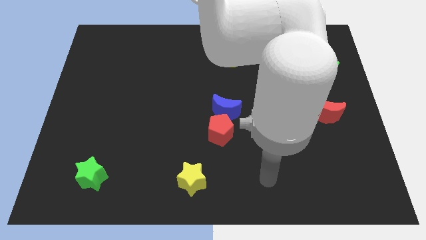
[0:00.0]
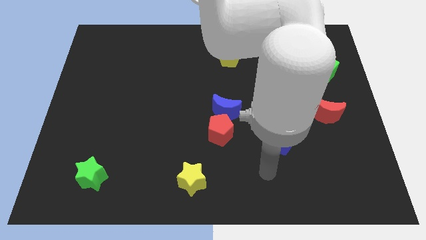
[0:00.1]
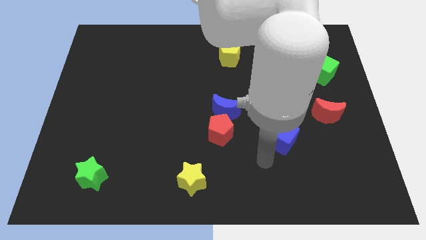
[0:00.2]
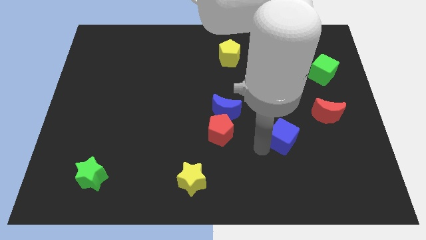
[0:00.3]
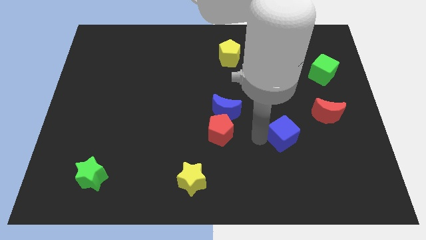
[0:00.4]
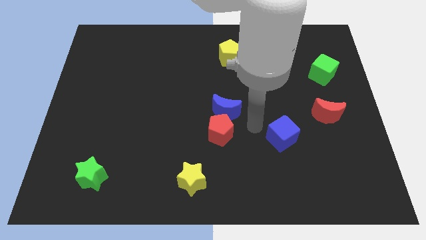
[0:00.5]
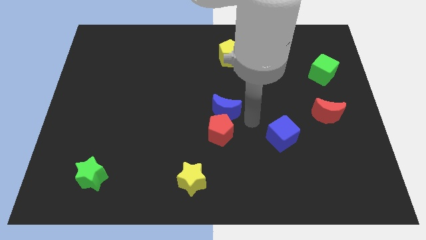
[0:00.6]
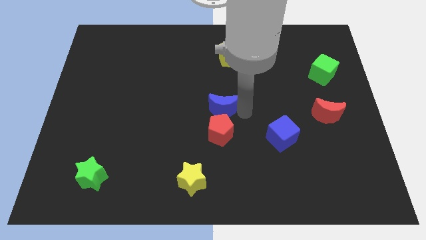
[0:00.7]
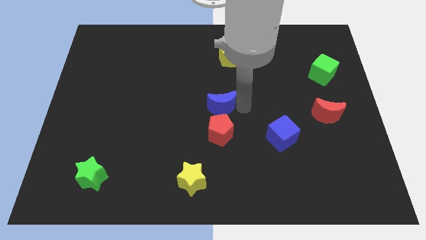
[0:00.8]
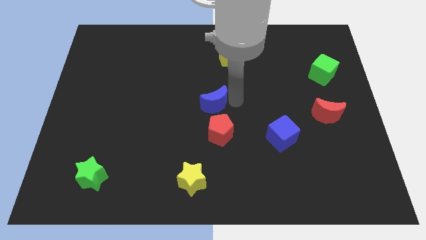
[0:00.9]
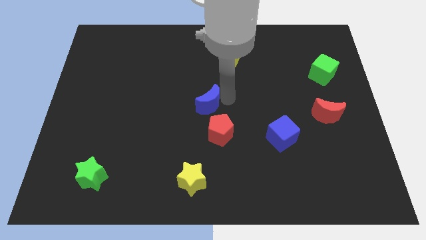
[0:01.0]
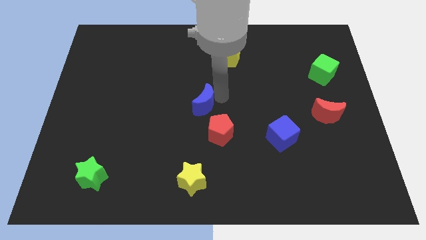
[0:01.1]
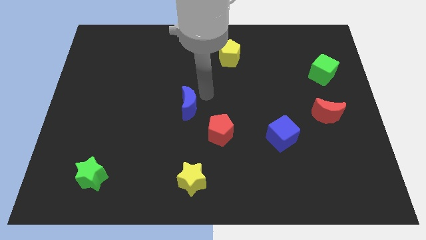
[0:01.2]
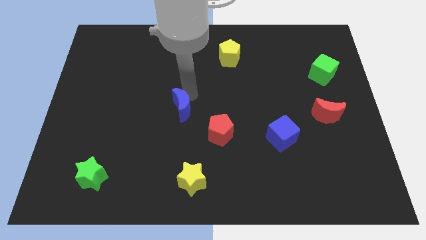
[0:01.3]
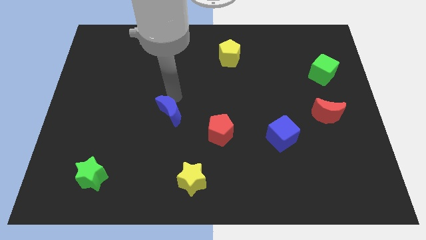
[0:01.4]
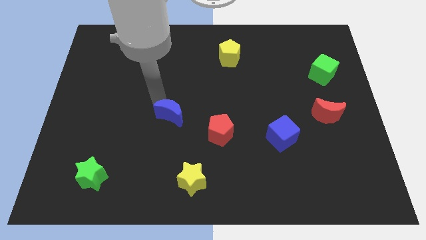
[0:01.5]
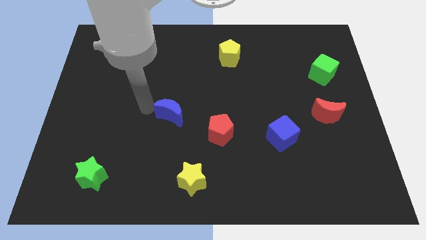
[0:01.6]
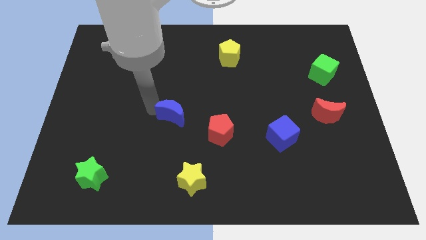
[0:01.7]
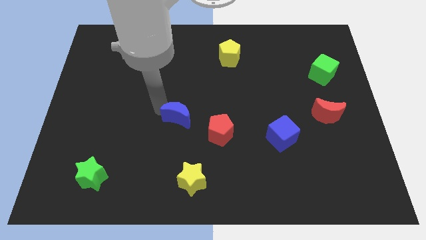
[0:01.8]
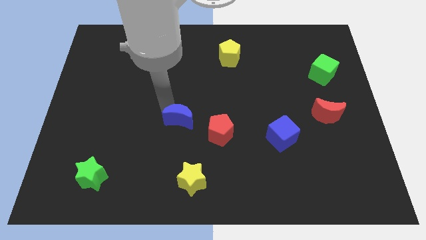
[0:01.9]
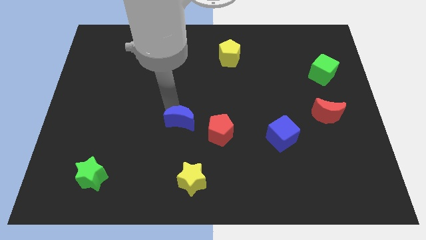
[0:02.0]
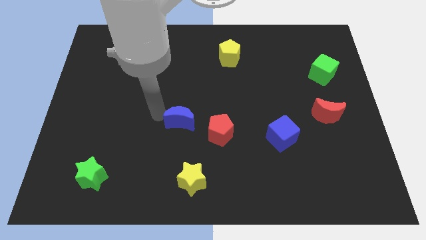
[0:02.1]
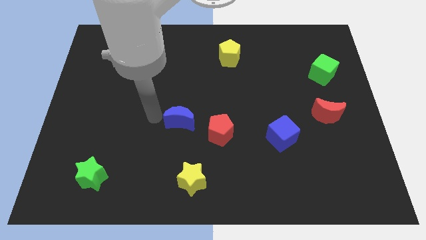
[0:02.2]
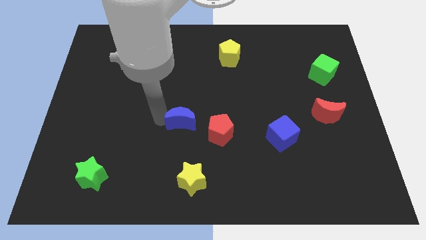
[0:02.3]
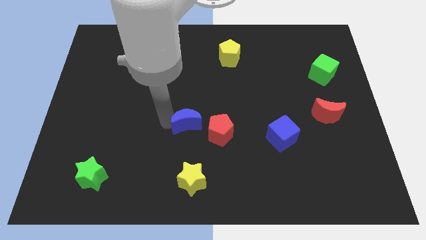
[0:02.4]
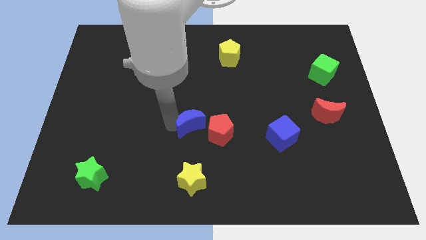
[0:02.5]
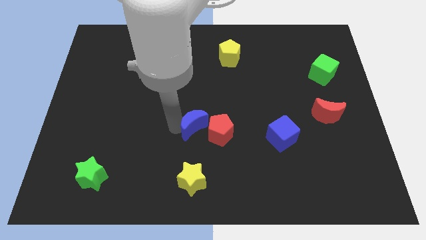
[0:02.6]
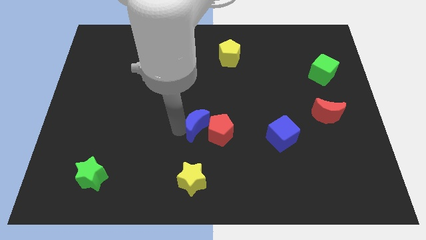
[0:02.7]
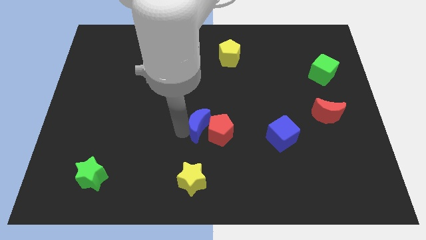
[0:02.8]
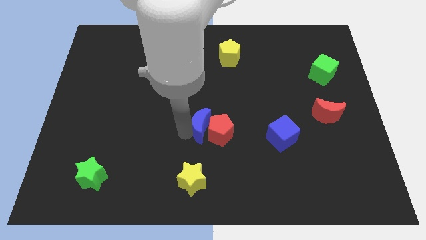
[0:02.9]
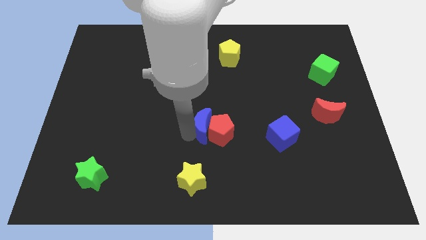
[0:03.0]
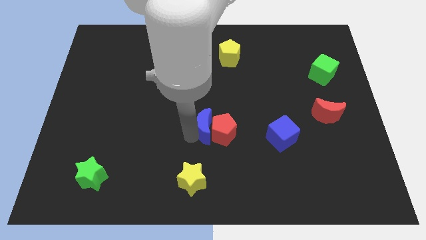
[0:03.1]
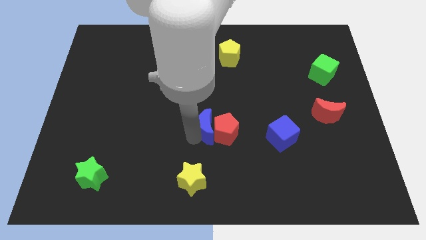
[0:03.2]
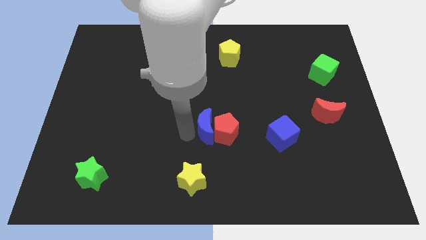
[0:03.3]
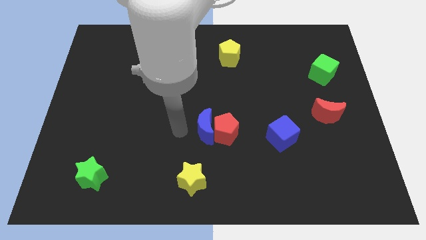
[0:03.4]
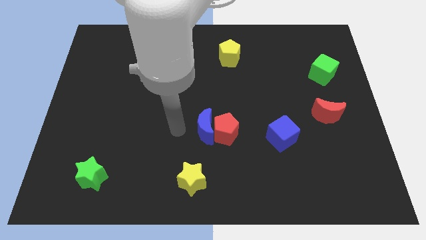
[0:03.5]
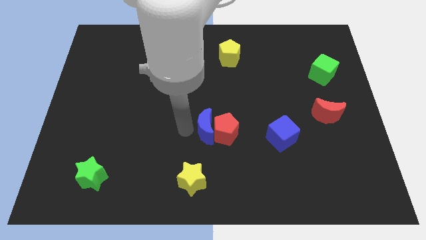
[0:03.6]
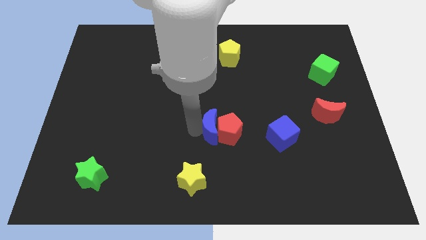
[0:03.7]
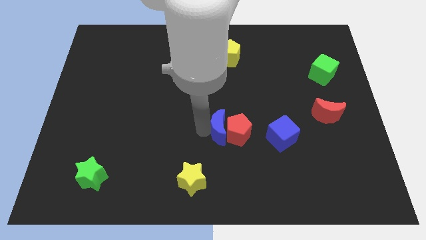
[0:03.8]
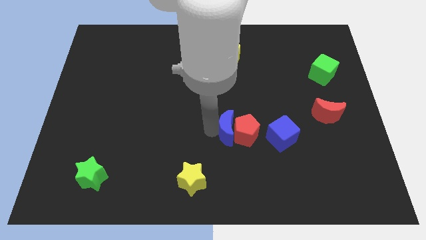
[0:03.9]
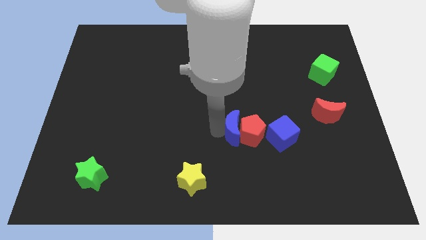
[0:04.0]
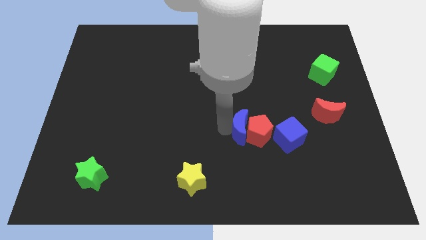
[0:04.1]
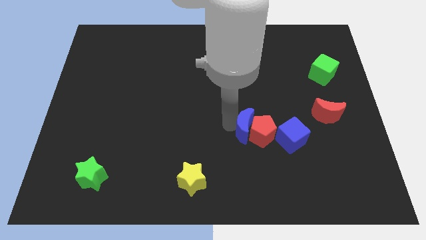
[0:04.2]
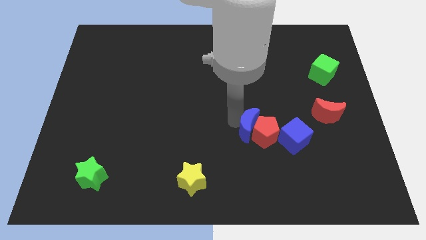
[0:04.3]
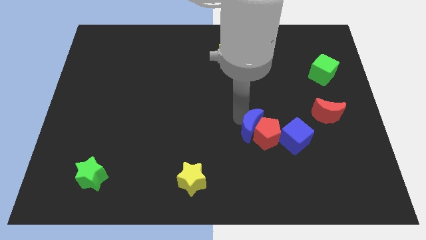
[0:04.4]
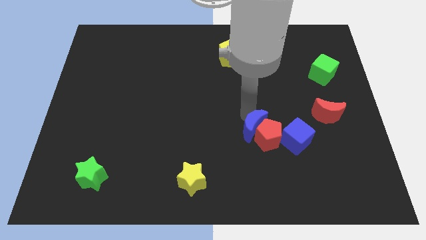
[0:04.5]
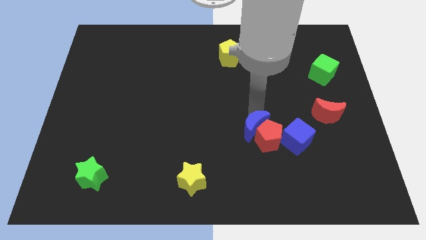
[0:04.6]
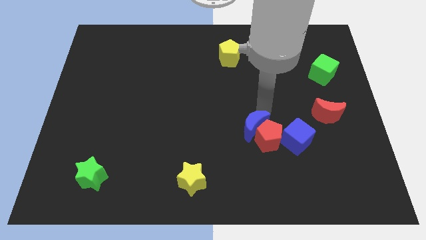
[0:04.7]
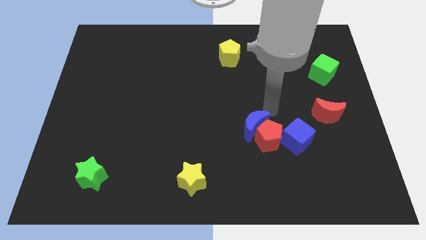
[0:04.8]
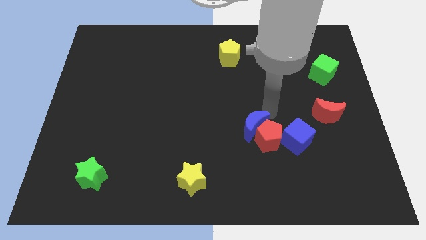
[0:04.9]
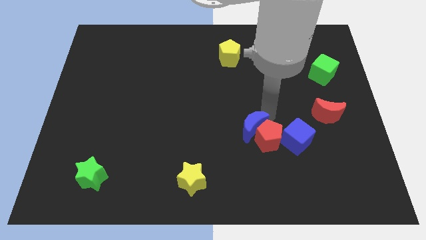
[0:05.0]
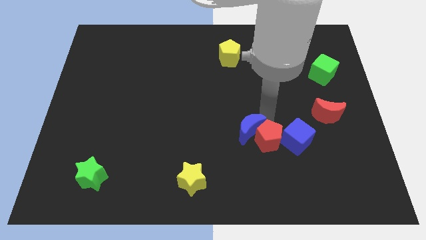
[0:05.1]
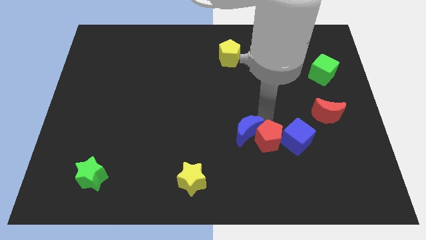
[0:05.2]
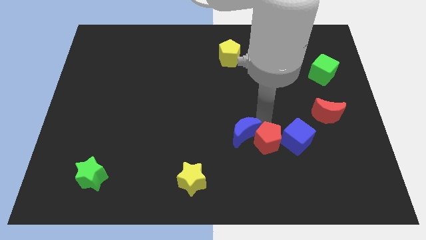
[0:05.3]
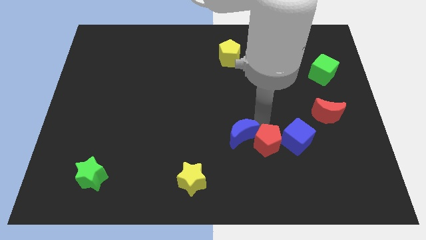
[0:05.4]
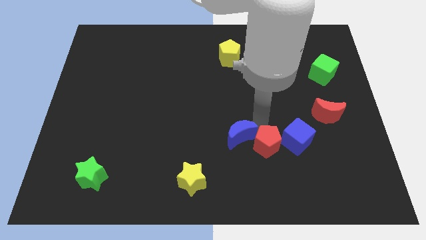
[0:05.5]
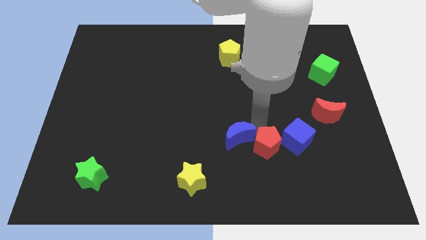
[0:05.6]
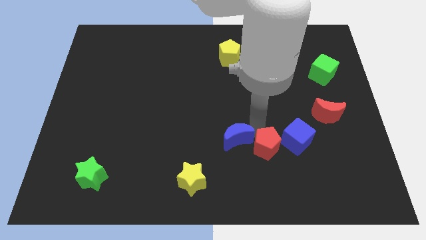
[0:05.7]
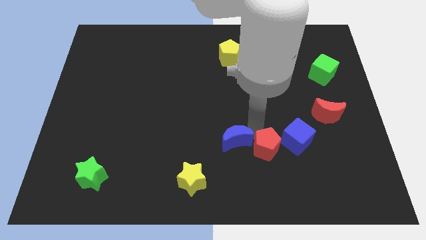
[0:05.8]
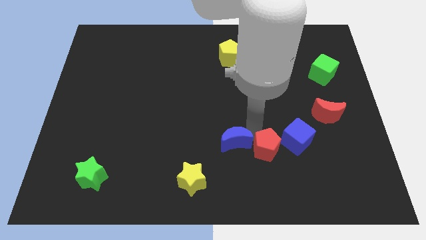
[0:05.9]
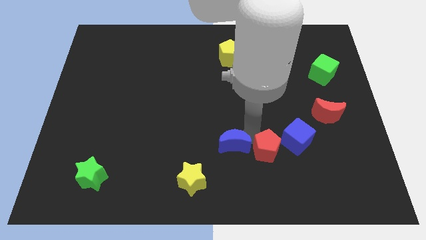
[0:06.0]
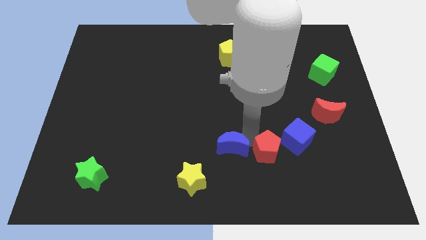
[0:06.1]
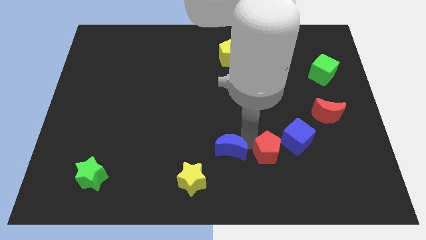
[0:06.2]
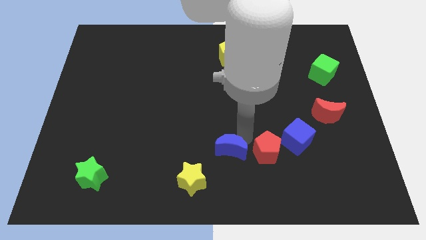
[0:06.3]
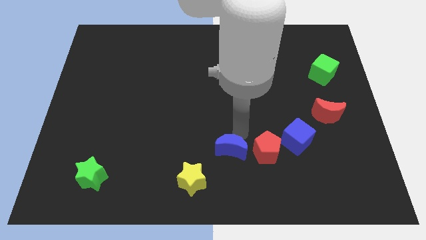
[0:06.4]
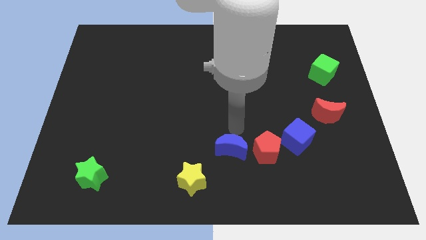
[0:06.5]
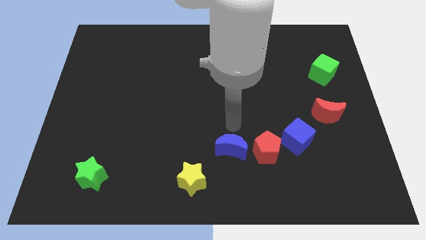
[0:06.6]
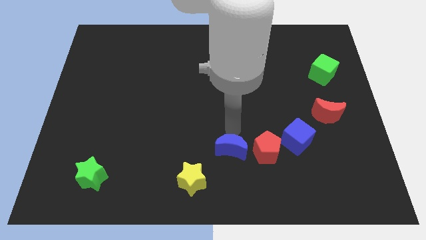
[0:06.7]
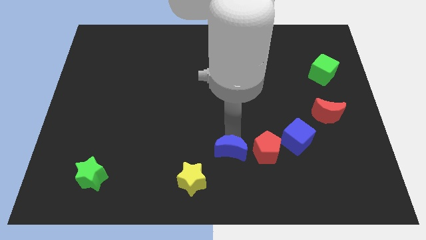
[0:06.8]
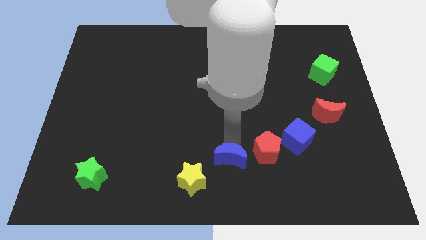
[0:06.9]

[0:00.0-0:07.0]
push the blue moon to the bottom
